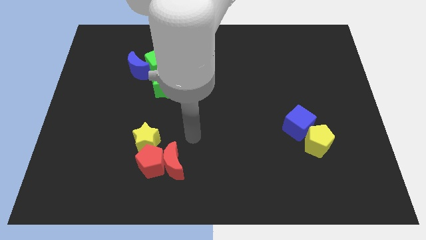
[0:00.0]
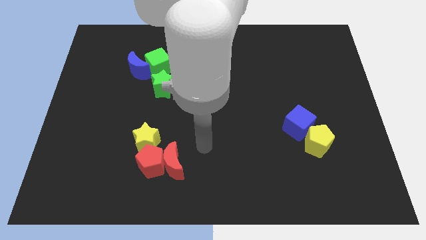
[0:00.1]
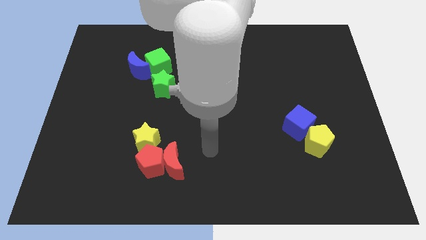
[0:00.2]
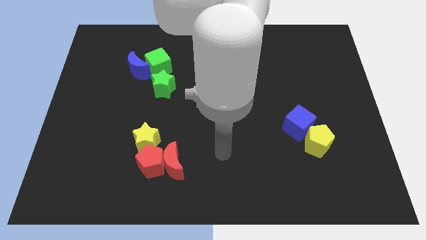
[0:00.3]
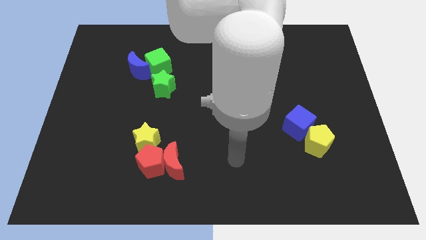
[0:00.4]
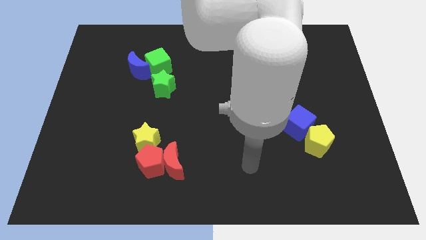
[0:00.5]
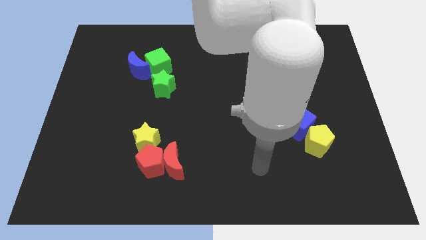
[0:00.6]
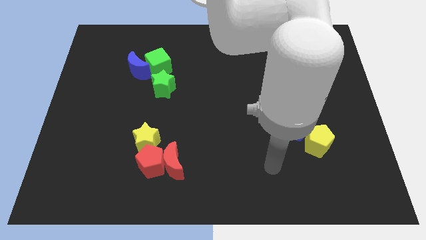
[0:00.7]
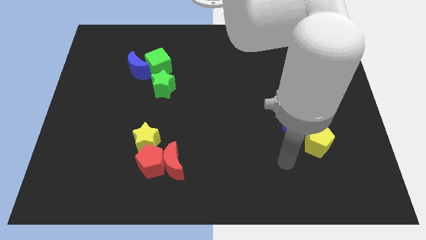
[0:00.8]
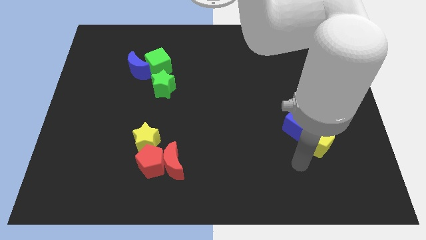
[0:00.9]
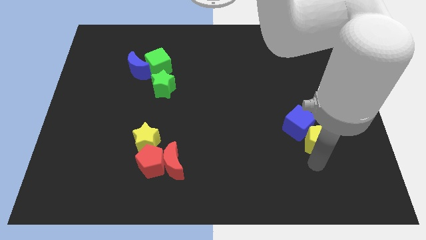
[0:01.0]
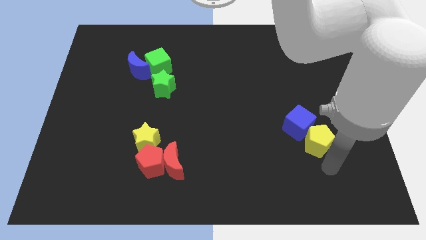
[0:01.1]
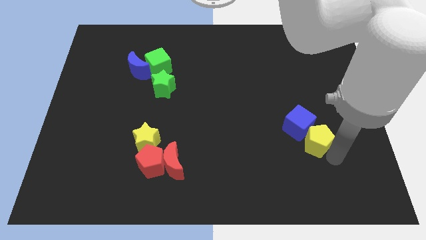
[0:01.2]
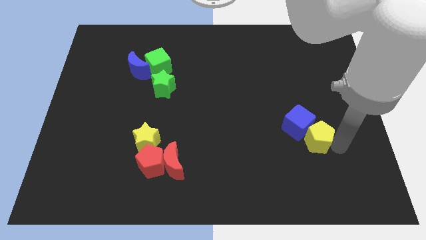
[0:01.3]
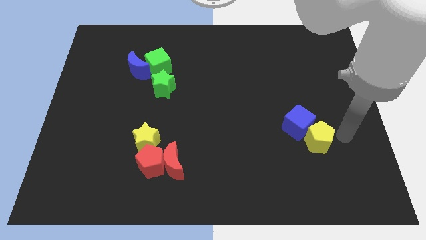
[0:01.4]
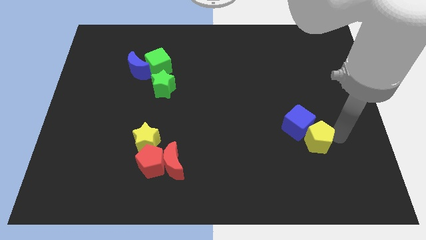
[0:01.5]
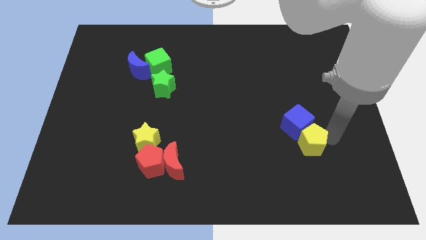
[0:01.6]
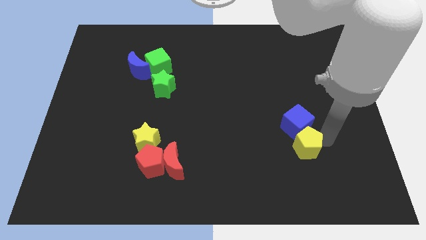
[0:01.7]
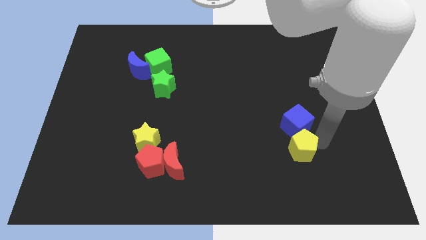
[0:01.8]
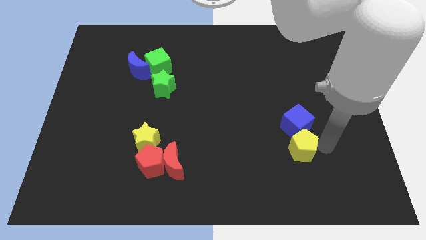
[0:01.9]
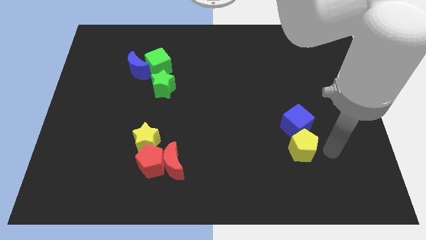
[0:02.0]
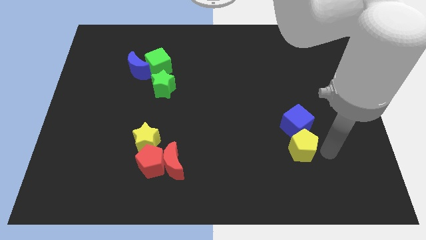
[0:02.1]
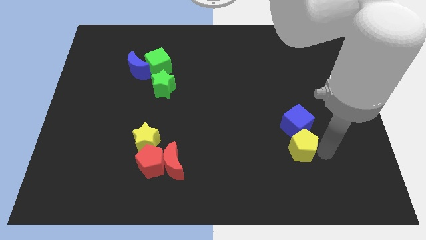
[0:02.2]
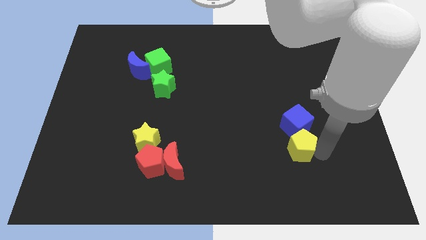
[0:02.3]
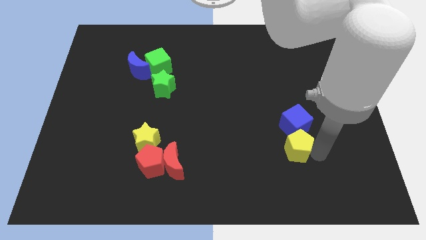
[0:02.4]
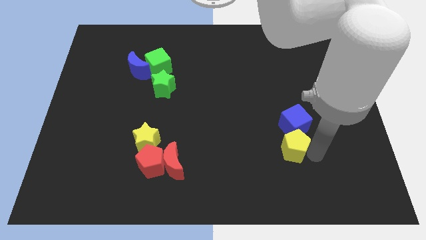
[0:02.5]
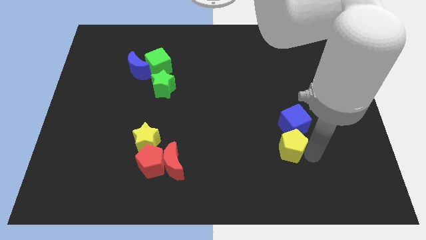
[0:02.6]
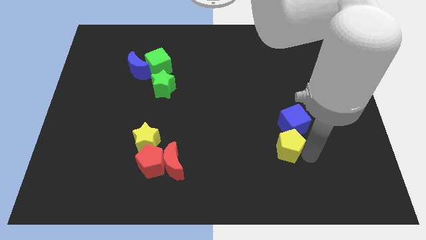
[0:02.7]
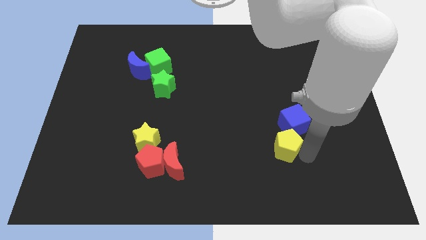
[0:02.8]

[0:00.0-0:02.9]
slide the yellow pentagon left a little bit

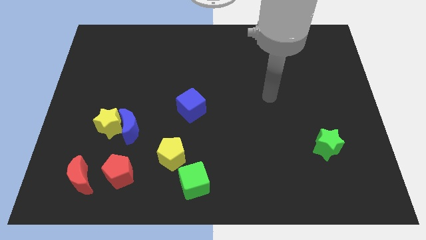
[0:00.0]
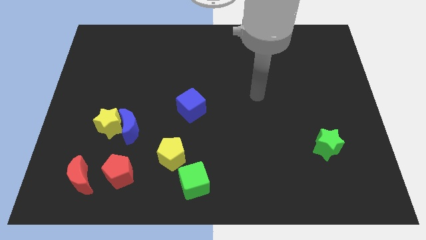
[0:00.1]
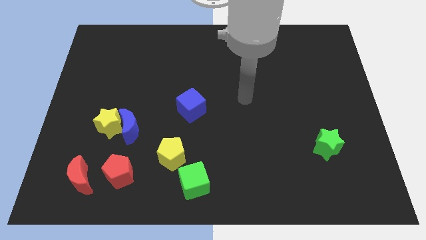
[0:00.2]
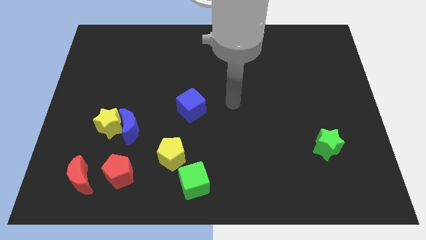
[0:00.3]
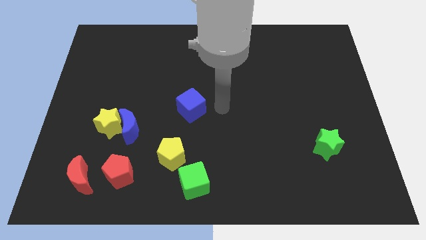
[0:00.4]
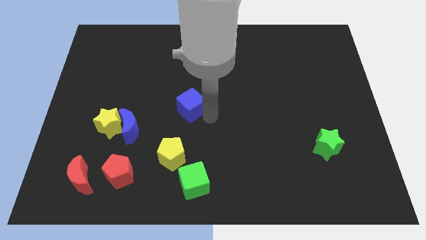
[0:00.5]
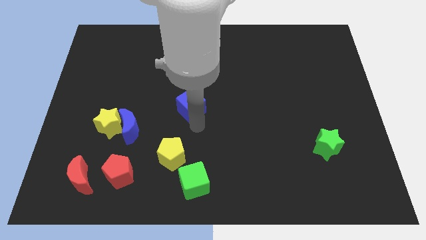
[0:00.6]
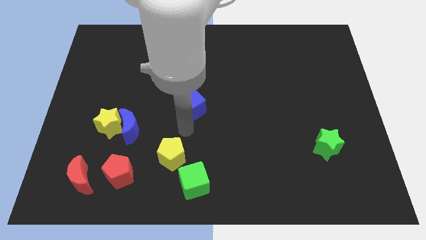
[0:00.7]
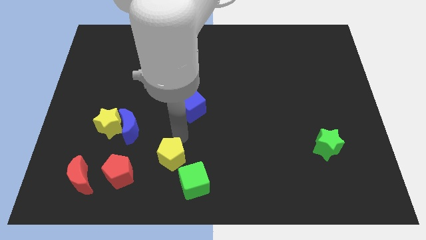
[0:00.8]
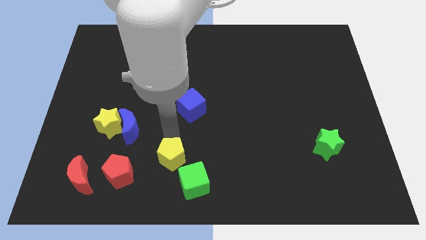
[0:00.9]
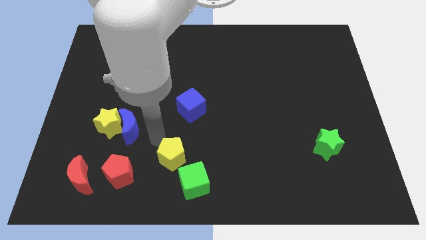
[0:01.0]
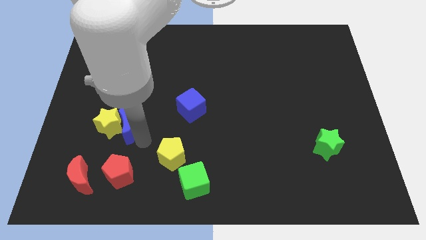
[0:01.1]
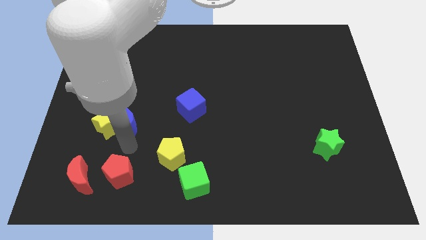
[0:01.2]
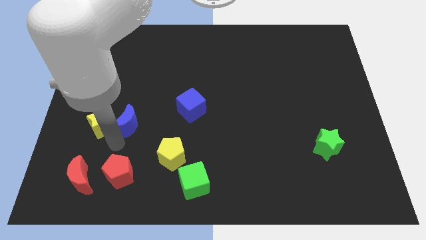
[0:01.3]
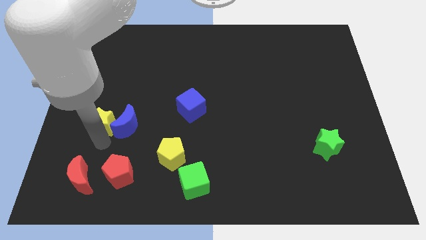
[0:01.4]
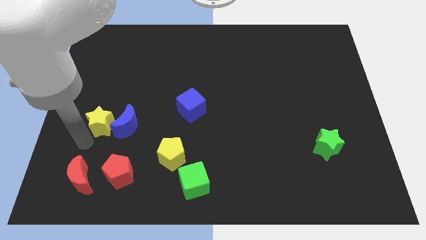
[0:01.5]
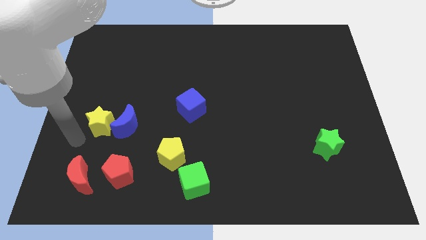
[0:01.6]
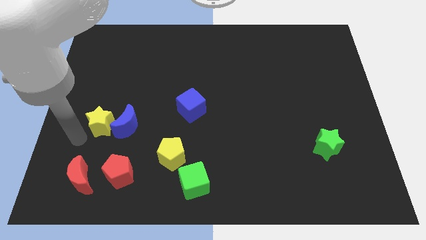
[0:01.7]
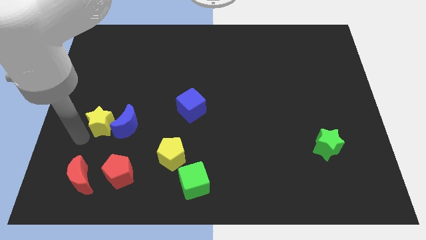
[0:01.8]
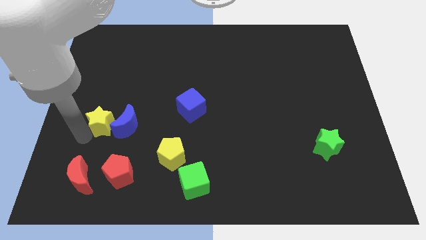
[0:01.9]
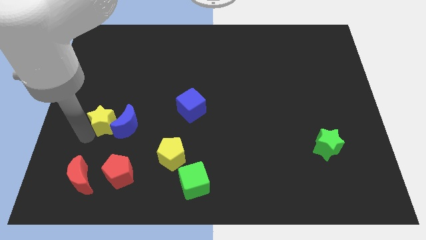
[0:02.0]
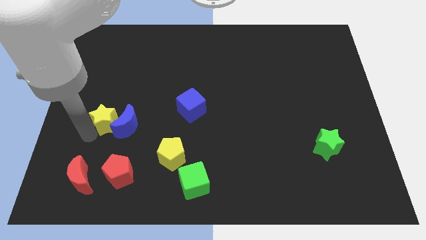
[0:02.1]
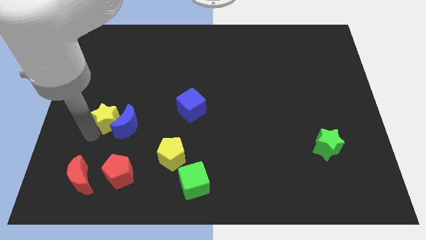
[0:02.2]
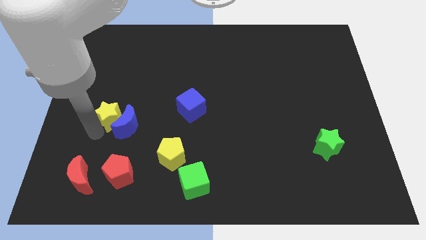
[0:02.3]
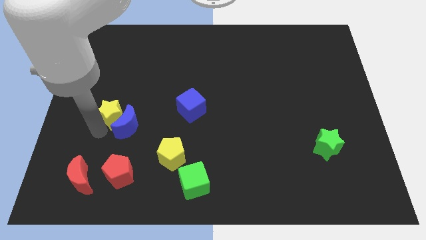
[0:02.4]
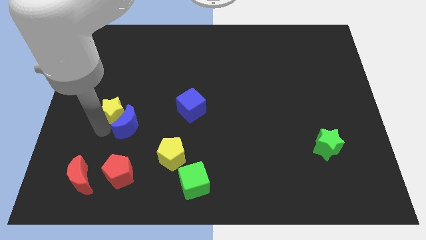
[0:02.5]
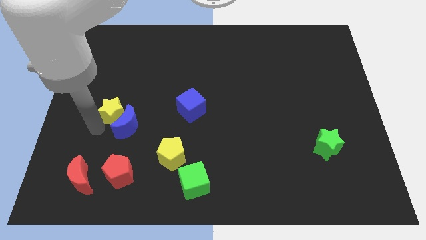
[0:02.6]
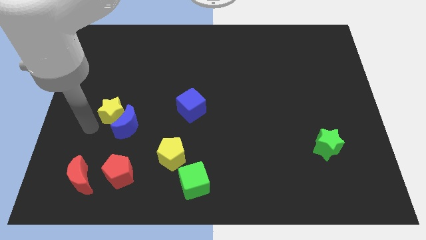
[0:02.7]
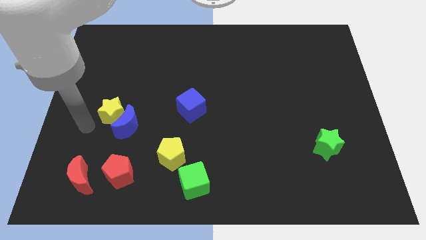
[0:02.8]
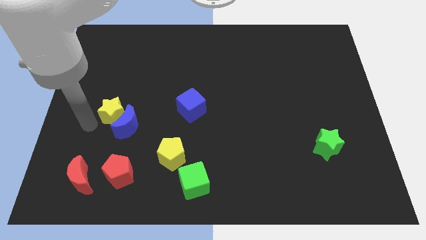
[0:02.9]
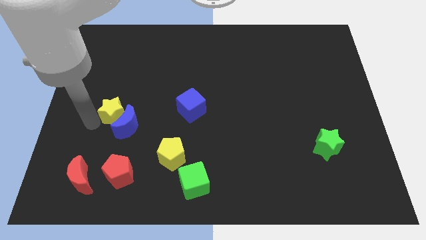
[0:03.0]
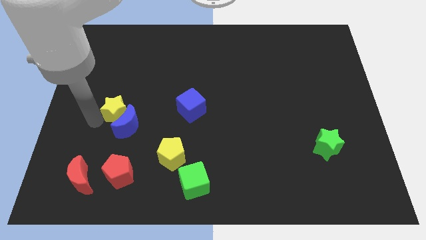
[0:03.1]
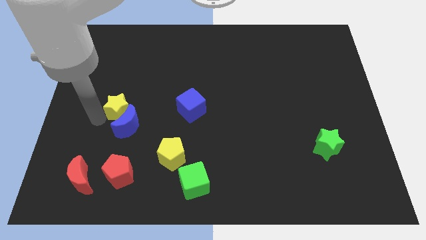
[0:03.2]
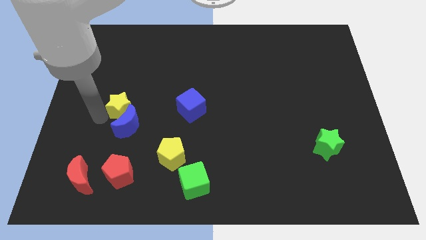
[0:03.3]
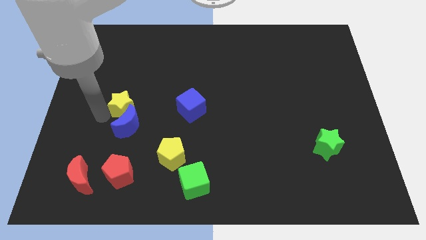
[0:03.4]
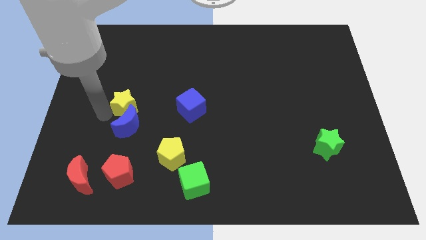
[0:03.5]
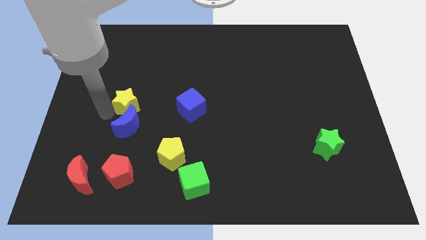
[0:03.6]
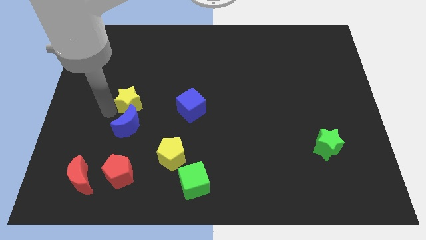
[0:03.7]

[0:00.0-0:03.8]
move the yellow star diagonally upwards and to the right a little

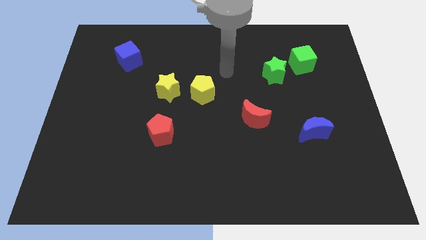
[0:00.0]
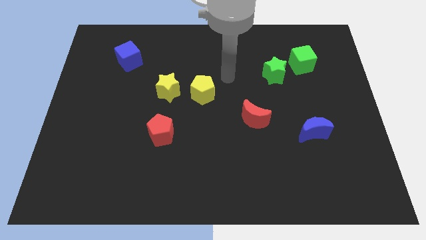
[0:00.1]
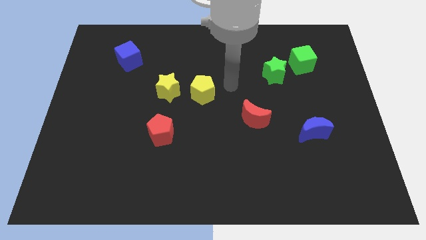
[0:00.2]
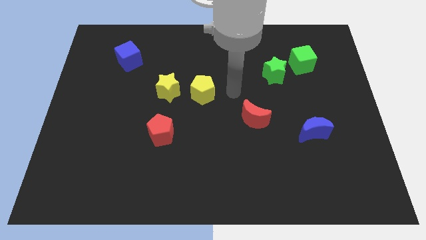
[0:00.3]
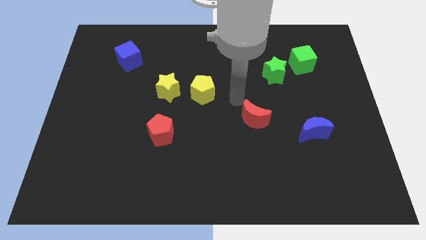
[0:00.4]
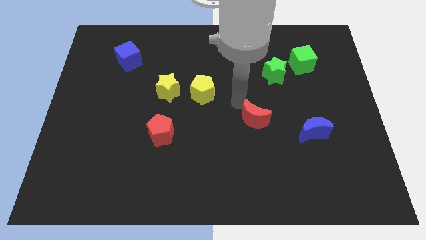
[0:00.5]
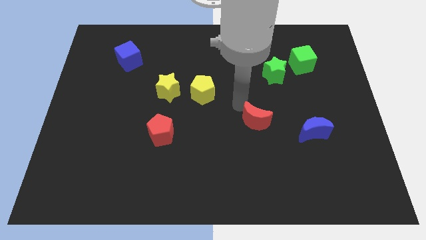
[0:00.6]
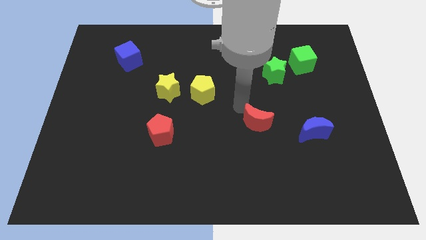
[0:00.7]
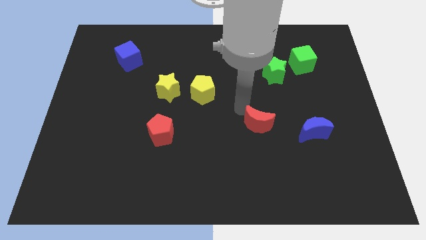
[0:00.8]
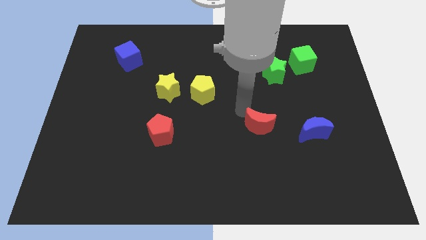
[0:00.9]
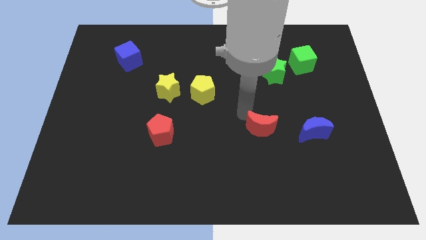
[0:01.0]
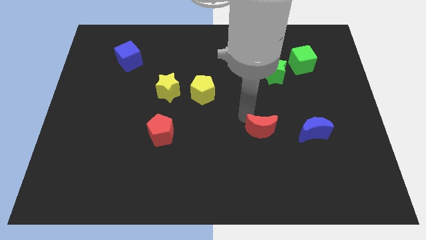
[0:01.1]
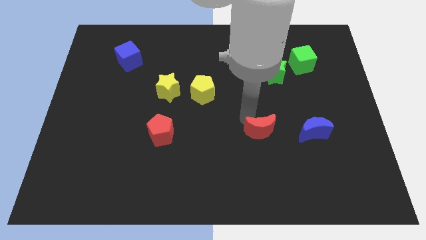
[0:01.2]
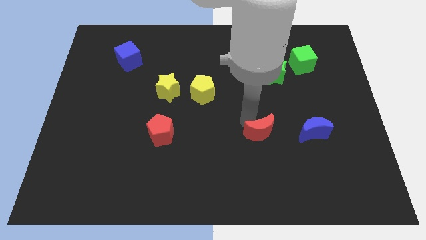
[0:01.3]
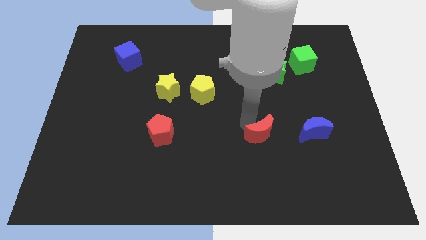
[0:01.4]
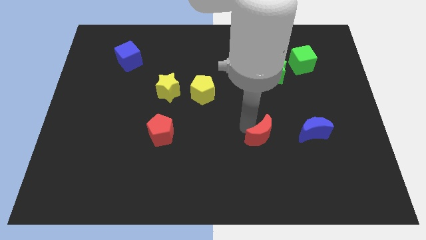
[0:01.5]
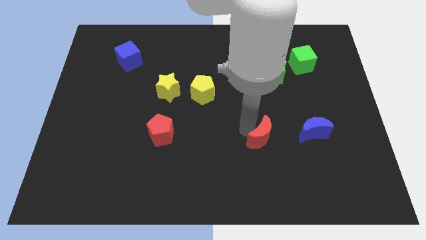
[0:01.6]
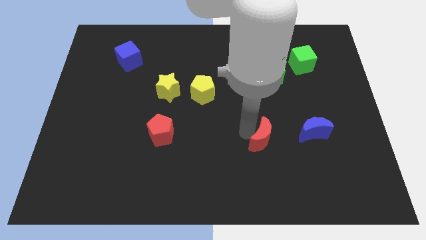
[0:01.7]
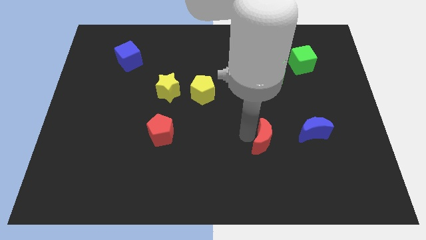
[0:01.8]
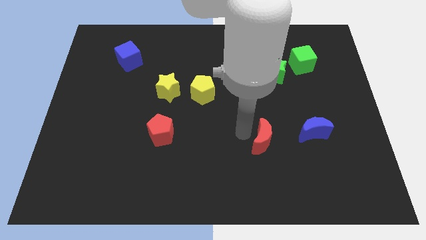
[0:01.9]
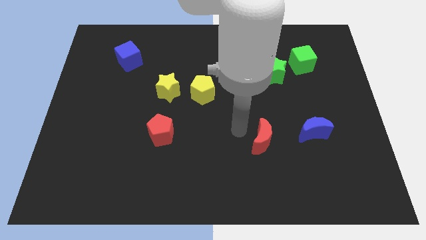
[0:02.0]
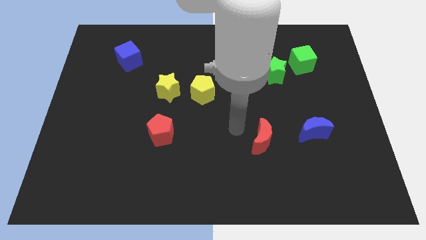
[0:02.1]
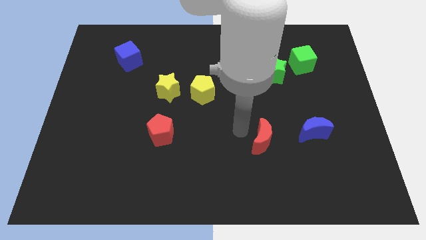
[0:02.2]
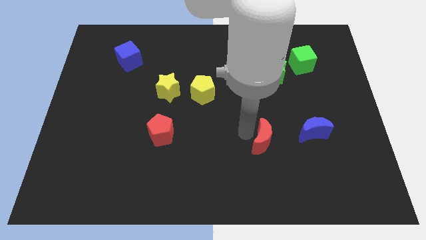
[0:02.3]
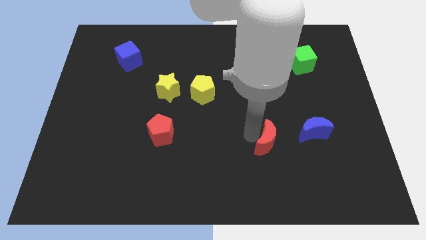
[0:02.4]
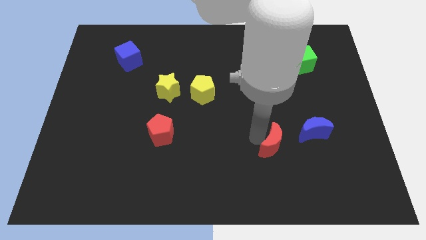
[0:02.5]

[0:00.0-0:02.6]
slightly push the red moon down and to the right diagonally
